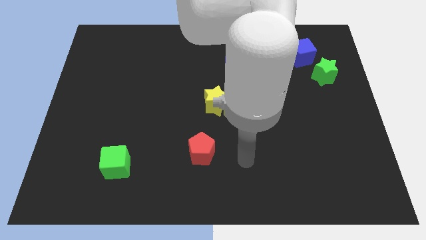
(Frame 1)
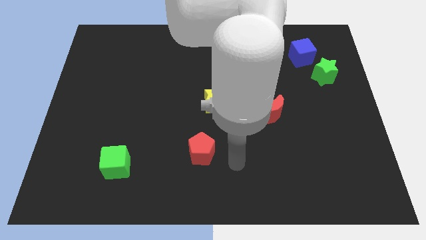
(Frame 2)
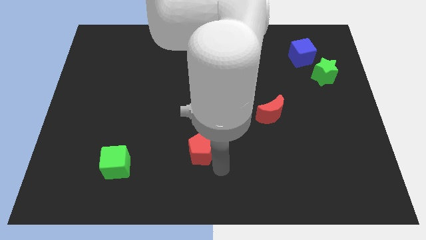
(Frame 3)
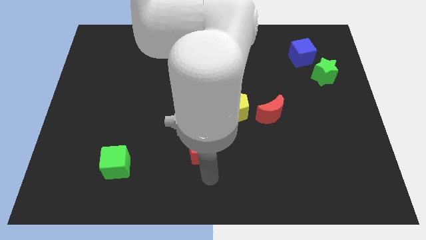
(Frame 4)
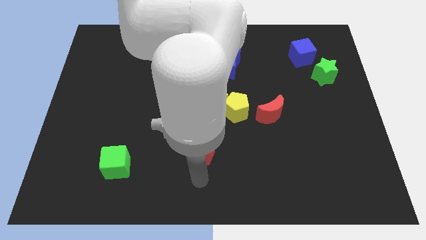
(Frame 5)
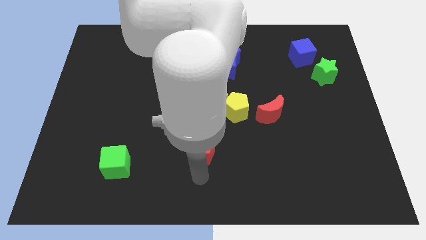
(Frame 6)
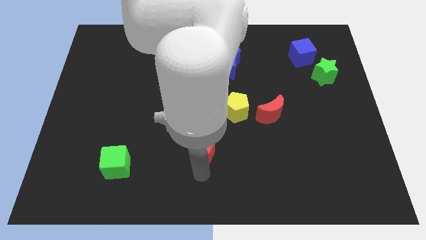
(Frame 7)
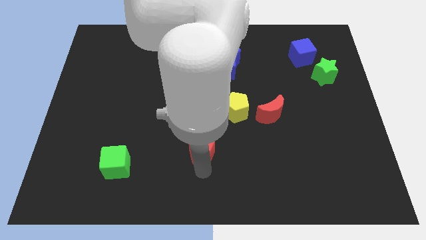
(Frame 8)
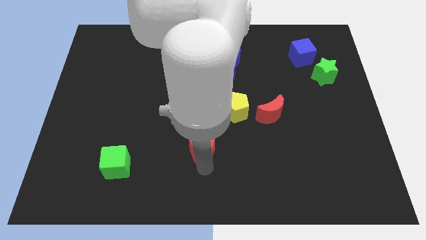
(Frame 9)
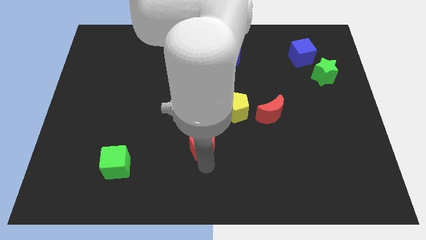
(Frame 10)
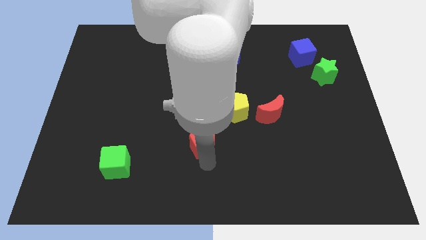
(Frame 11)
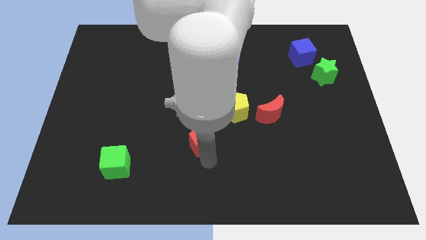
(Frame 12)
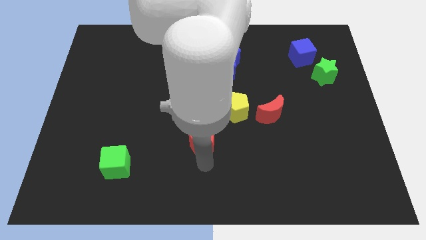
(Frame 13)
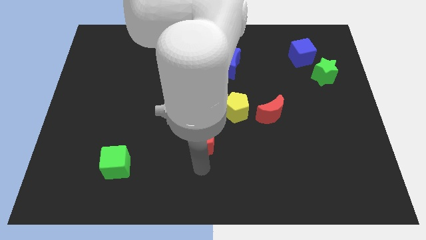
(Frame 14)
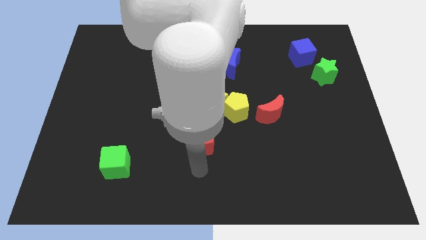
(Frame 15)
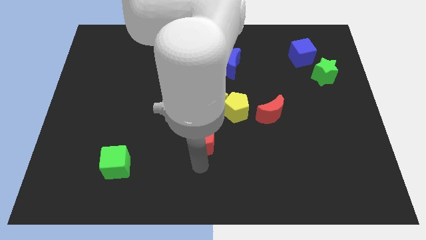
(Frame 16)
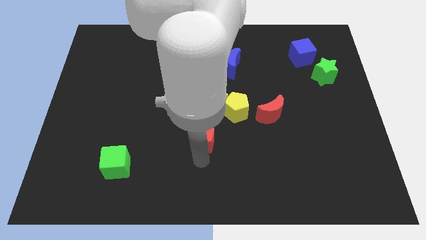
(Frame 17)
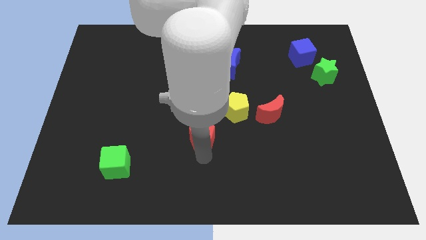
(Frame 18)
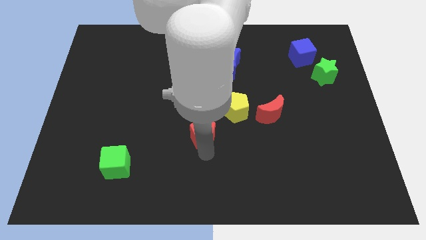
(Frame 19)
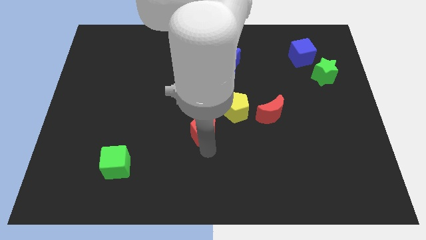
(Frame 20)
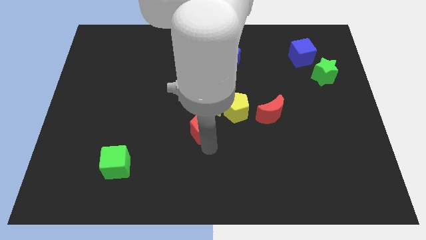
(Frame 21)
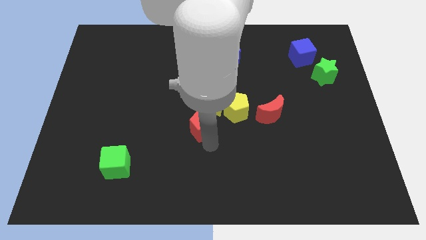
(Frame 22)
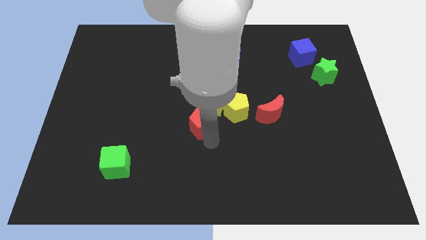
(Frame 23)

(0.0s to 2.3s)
slightly slide the red pentagon up

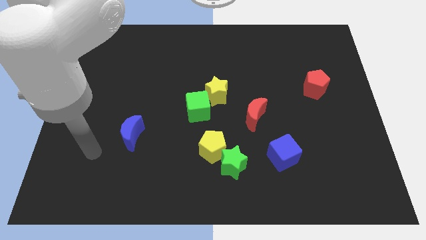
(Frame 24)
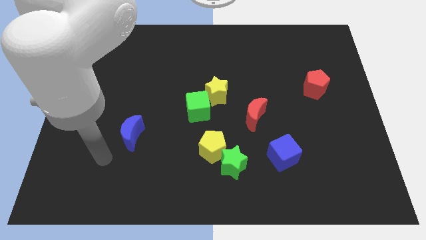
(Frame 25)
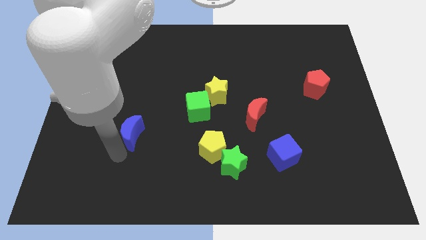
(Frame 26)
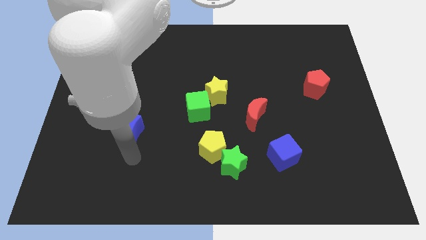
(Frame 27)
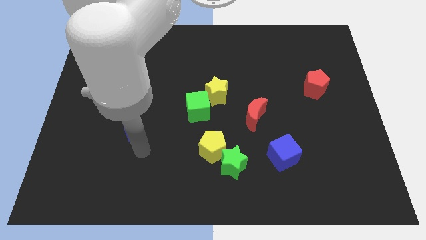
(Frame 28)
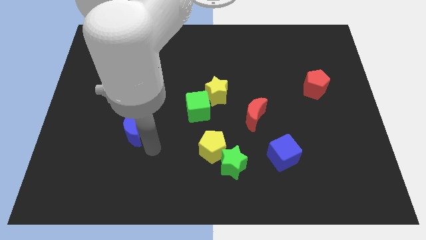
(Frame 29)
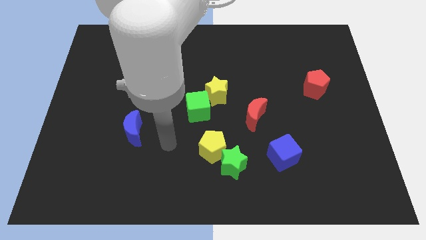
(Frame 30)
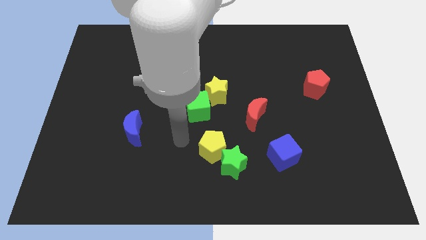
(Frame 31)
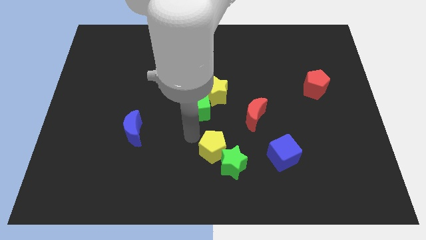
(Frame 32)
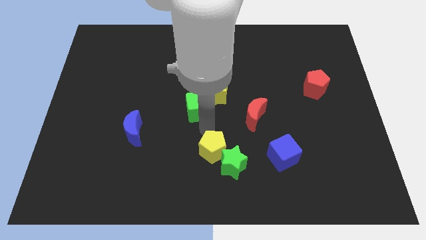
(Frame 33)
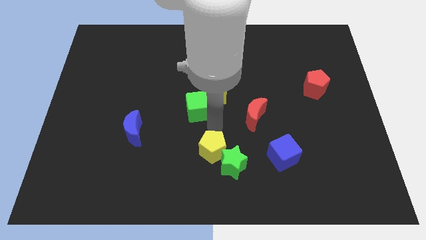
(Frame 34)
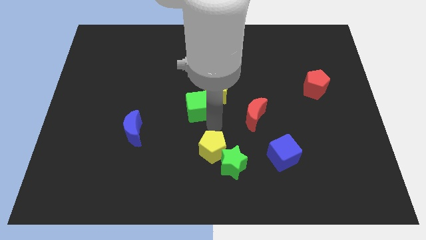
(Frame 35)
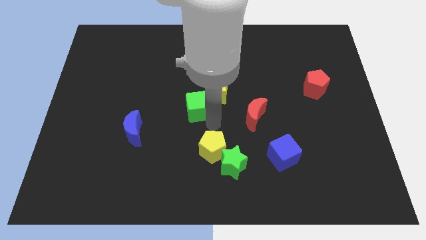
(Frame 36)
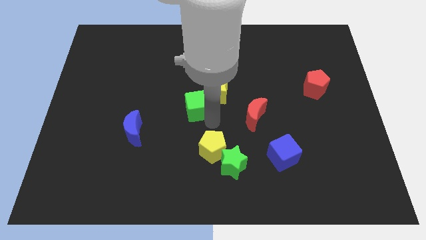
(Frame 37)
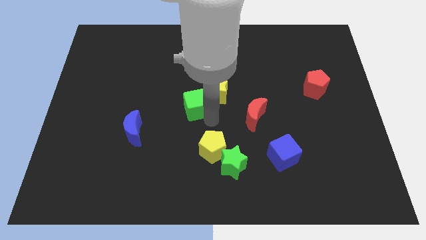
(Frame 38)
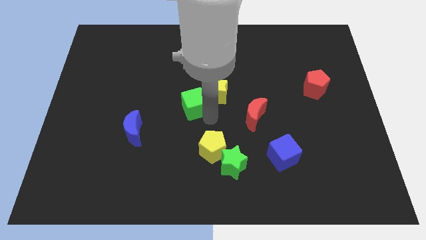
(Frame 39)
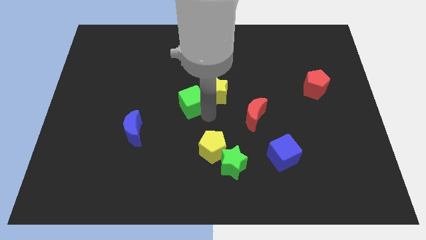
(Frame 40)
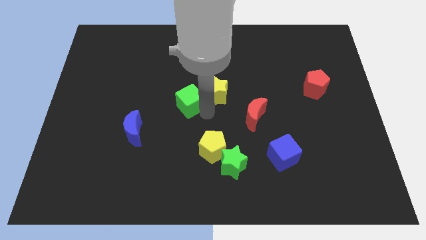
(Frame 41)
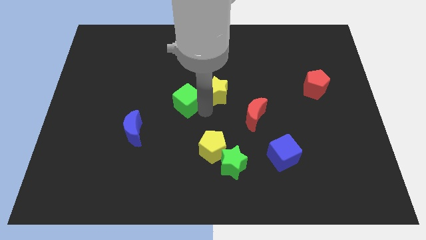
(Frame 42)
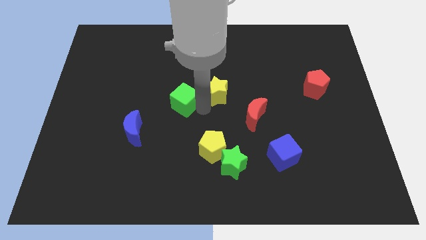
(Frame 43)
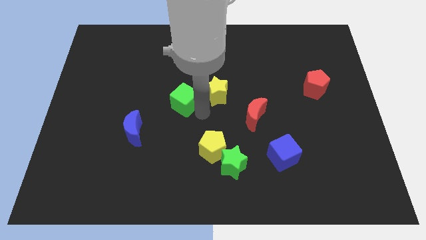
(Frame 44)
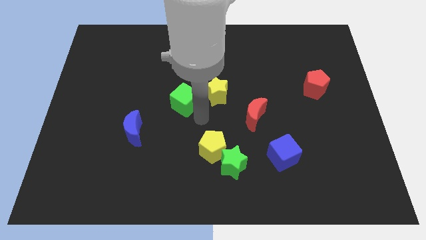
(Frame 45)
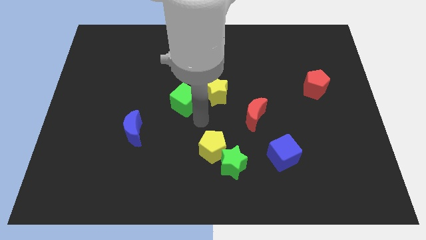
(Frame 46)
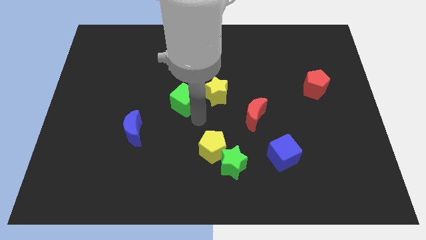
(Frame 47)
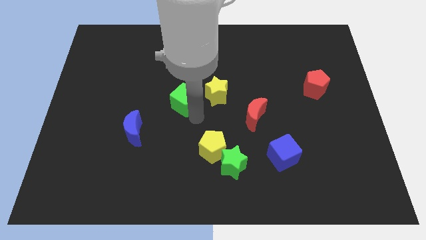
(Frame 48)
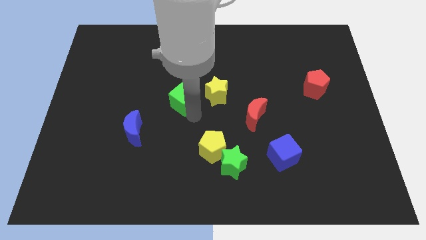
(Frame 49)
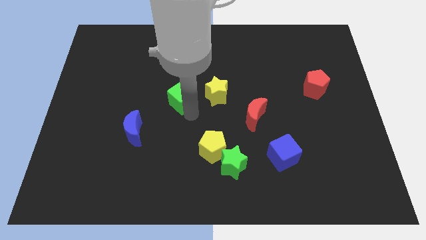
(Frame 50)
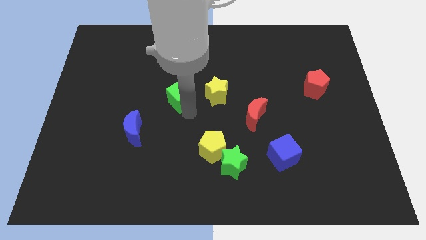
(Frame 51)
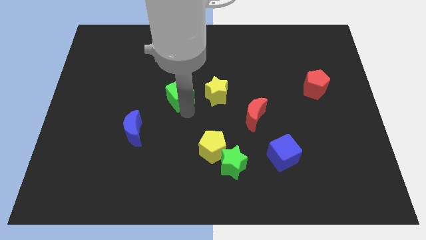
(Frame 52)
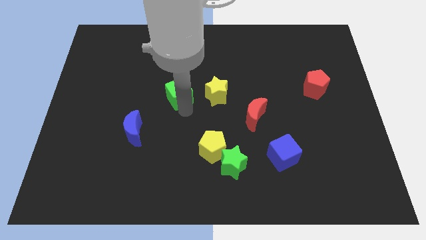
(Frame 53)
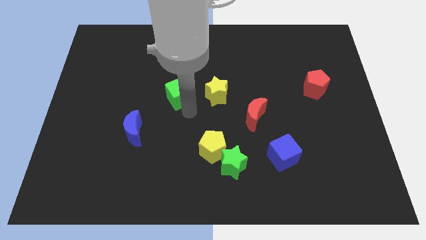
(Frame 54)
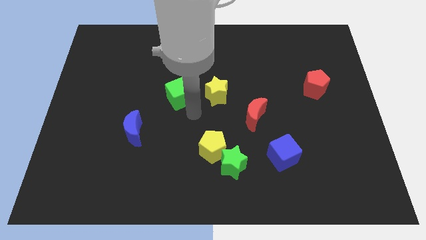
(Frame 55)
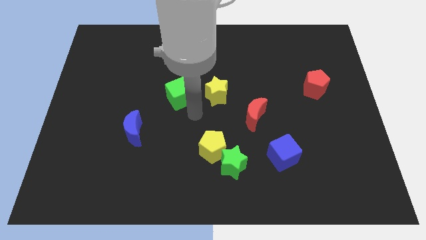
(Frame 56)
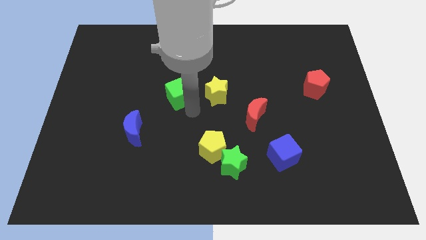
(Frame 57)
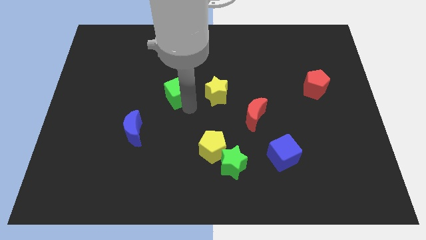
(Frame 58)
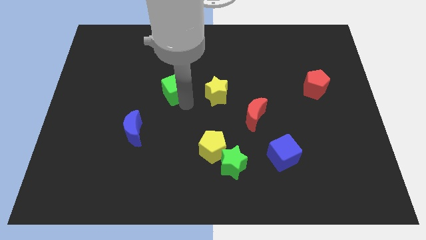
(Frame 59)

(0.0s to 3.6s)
push the green cube diagonally up and left a bit

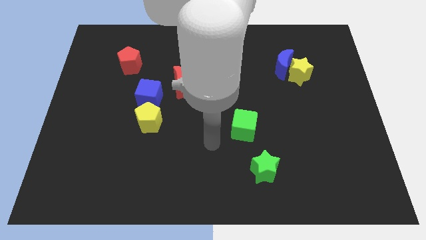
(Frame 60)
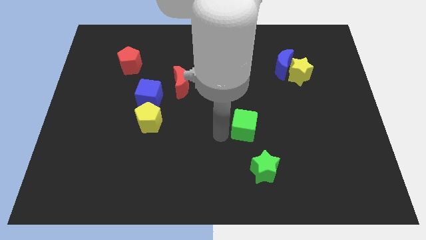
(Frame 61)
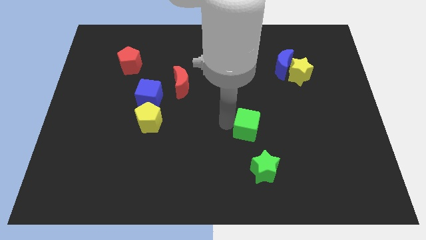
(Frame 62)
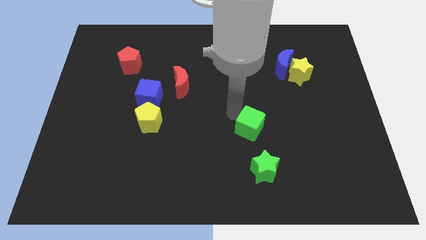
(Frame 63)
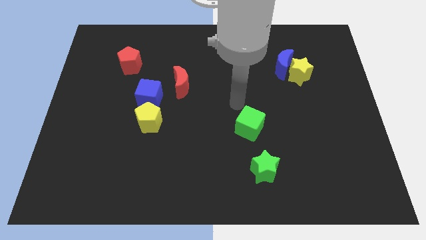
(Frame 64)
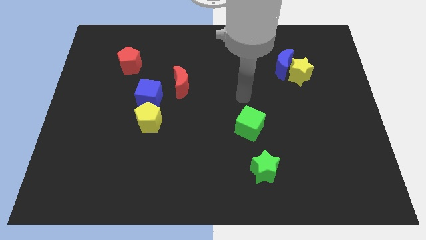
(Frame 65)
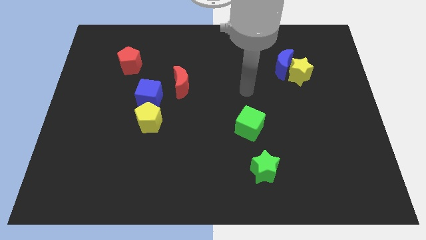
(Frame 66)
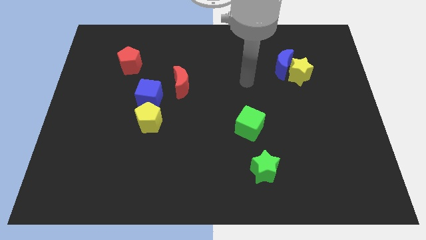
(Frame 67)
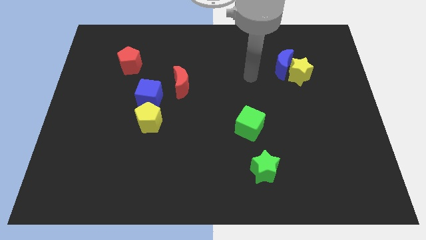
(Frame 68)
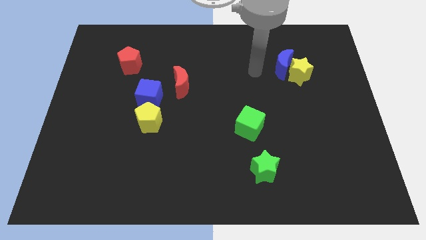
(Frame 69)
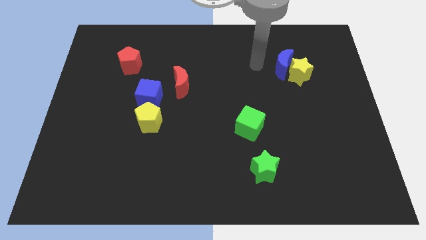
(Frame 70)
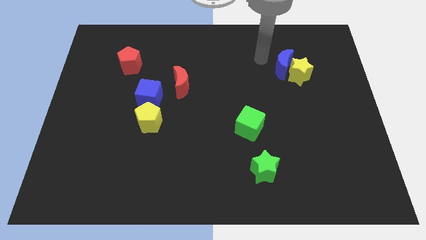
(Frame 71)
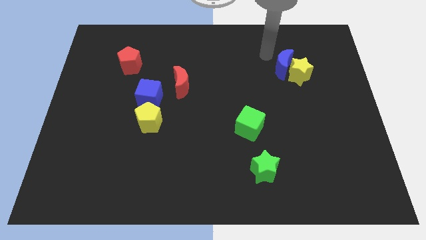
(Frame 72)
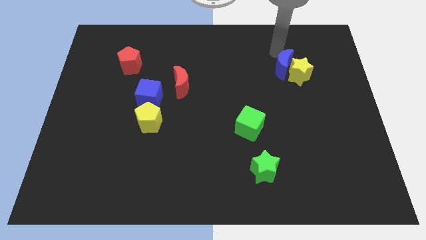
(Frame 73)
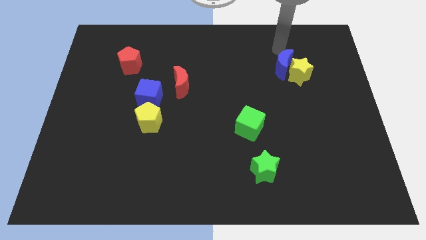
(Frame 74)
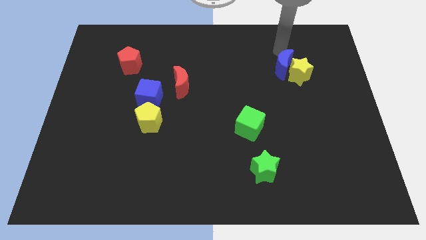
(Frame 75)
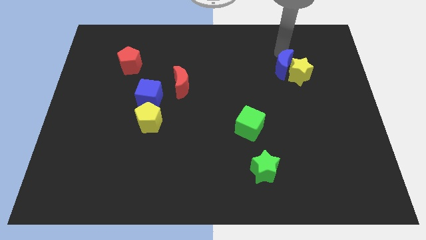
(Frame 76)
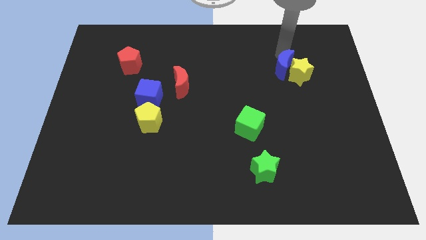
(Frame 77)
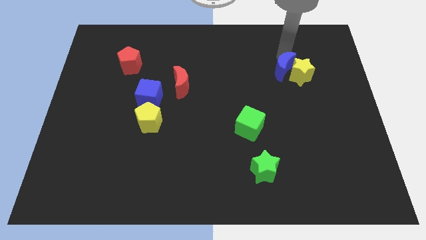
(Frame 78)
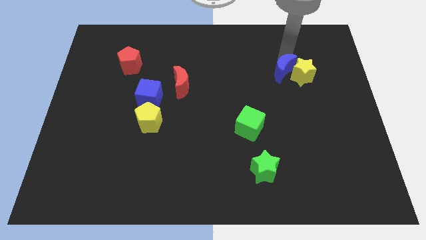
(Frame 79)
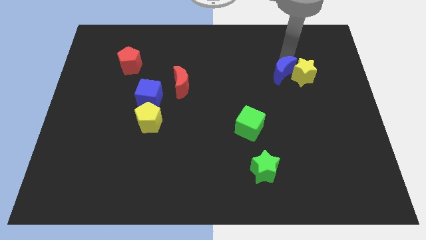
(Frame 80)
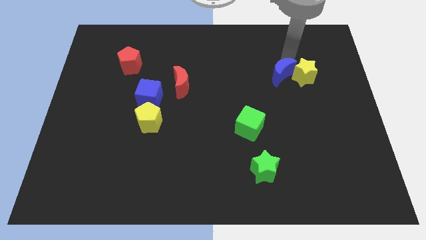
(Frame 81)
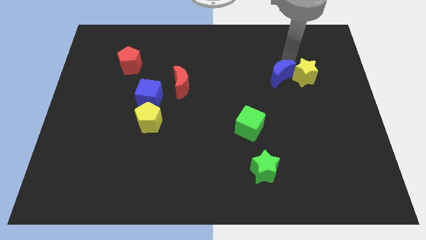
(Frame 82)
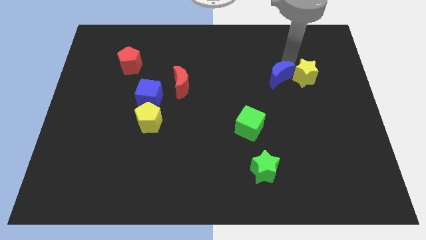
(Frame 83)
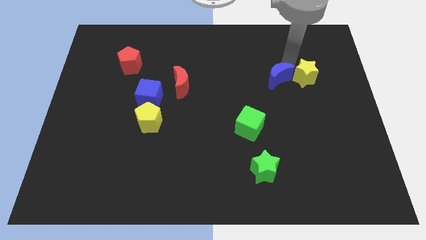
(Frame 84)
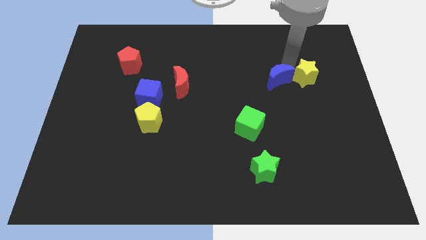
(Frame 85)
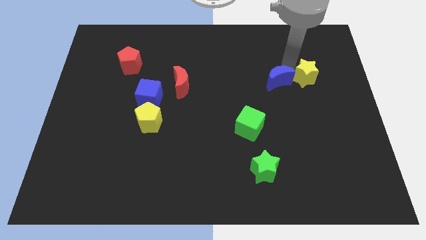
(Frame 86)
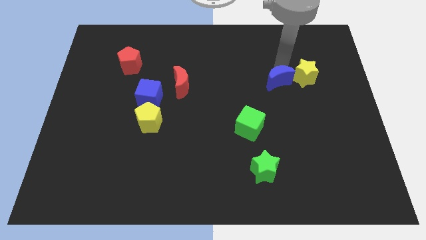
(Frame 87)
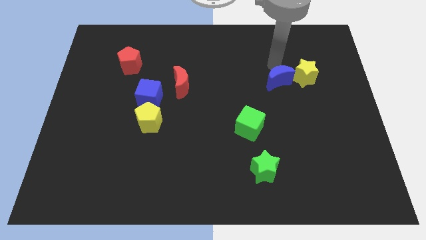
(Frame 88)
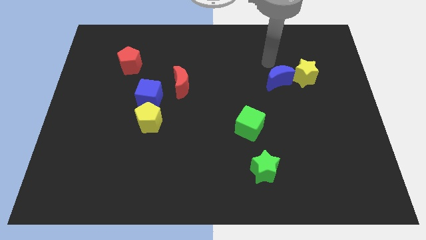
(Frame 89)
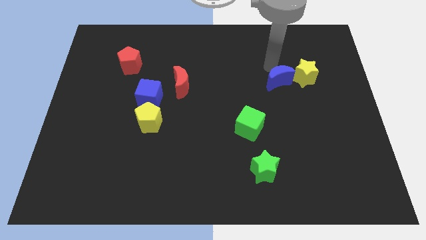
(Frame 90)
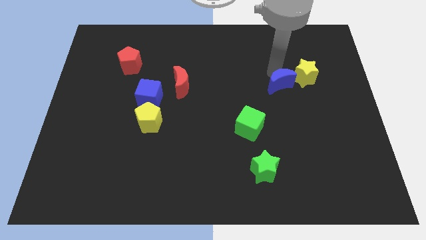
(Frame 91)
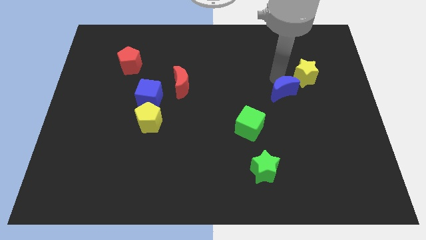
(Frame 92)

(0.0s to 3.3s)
move the blue moon down a little bit
